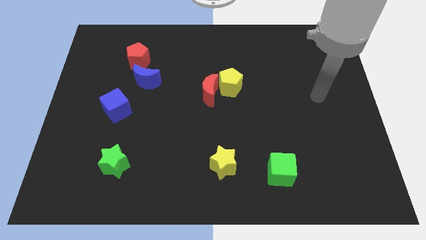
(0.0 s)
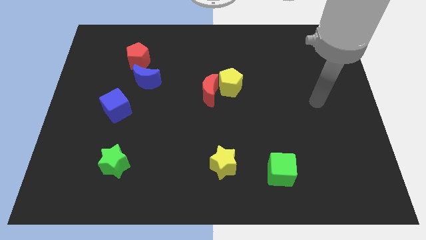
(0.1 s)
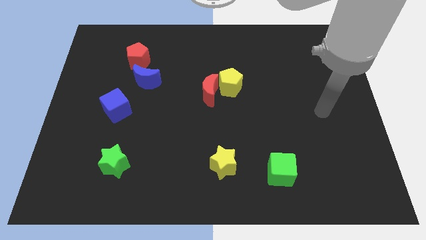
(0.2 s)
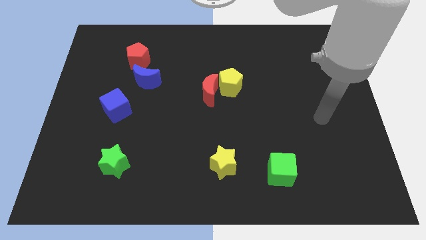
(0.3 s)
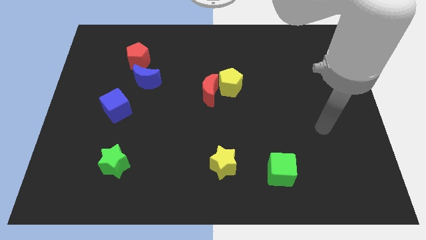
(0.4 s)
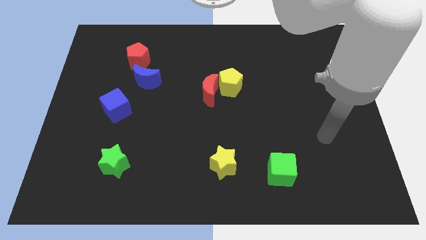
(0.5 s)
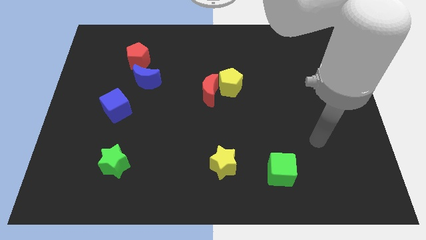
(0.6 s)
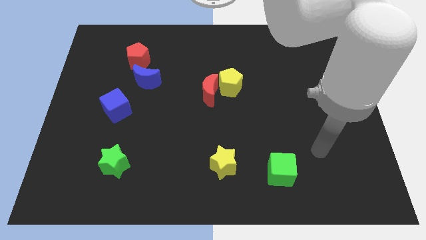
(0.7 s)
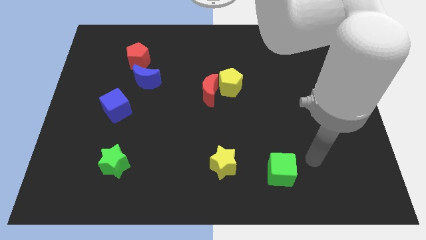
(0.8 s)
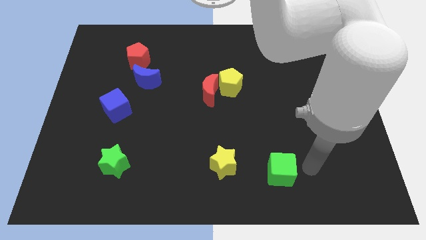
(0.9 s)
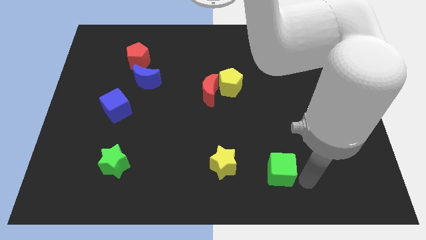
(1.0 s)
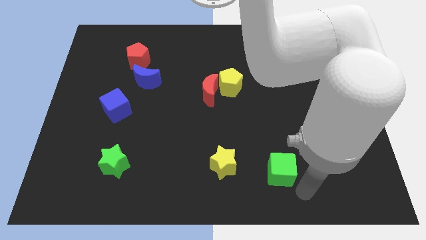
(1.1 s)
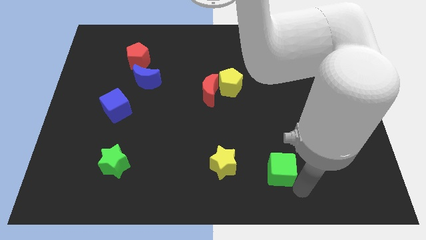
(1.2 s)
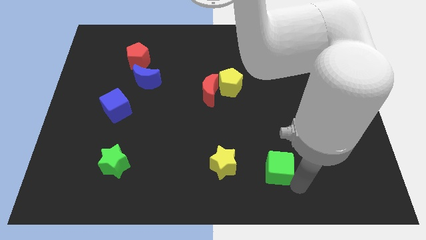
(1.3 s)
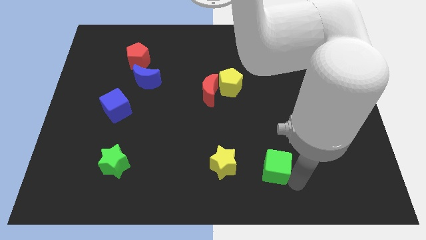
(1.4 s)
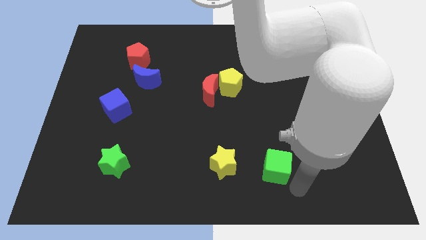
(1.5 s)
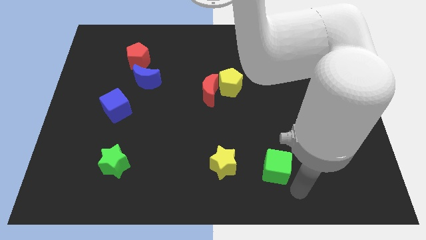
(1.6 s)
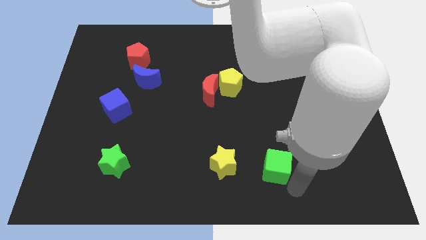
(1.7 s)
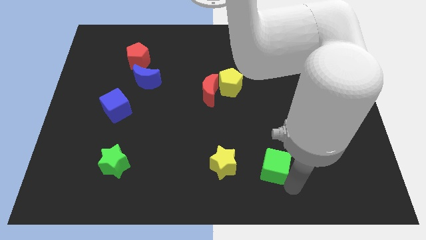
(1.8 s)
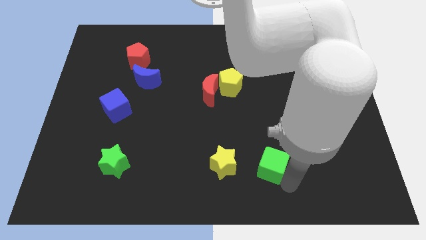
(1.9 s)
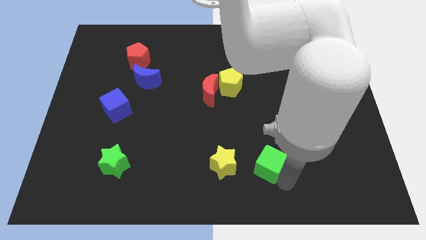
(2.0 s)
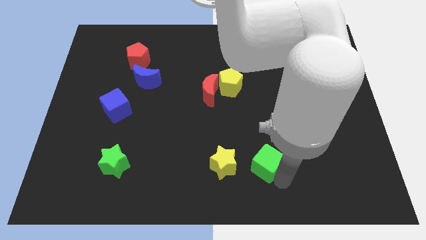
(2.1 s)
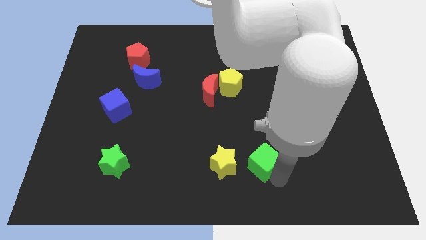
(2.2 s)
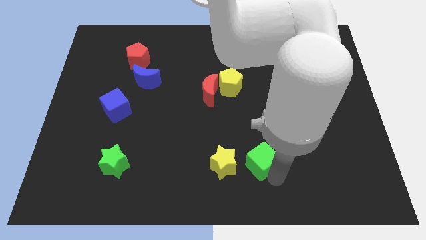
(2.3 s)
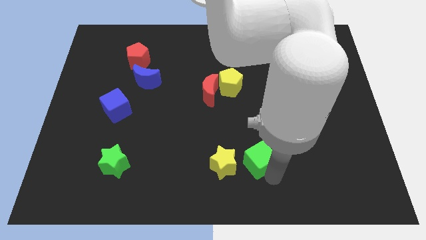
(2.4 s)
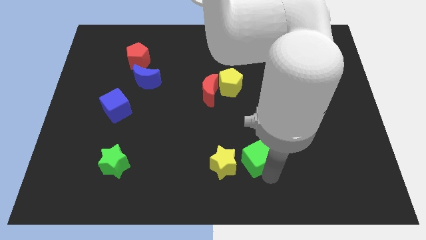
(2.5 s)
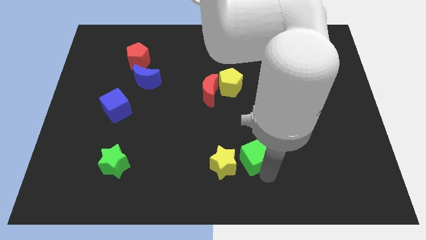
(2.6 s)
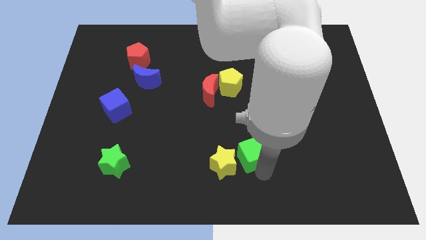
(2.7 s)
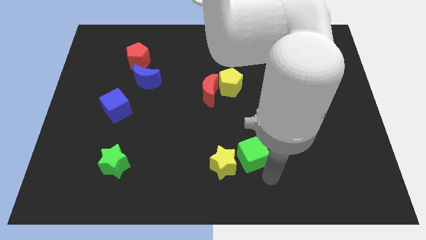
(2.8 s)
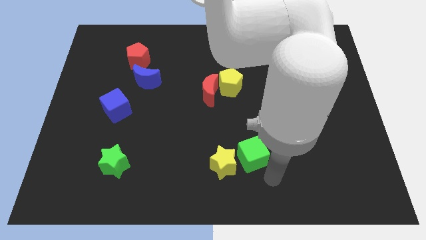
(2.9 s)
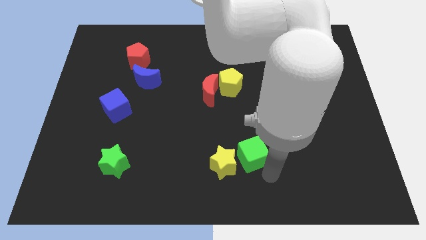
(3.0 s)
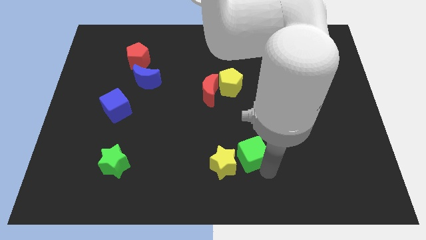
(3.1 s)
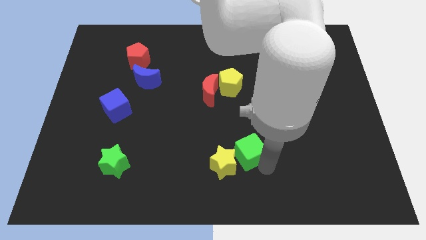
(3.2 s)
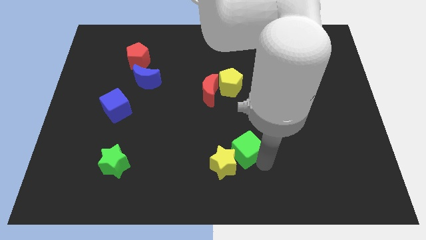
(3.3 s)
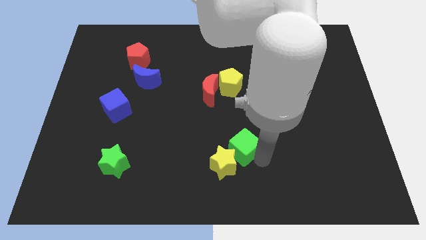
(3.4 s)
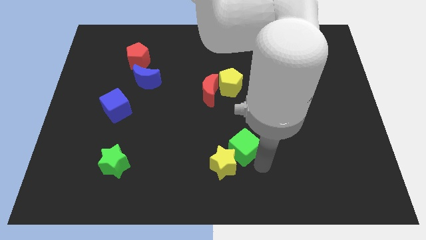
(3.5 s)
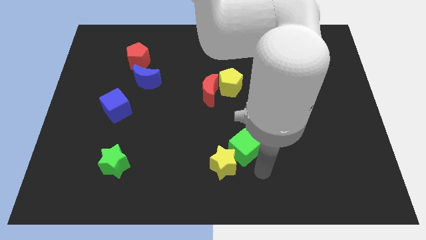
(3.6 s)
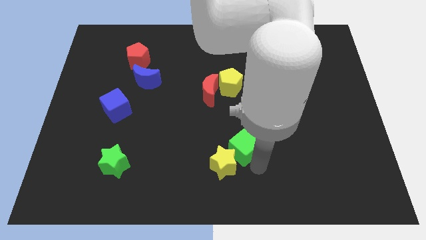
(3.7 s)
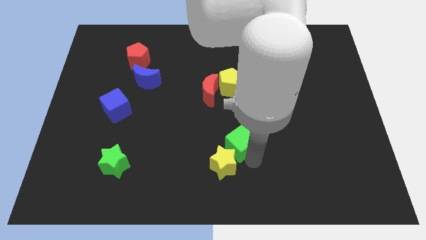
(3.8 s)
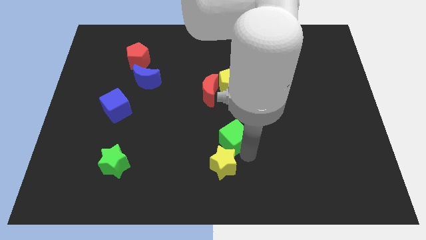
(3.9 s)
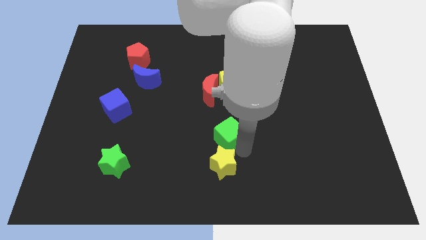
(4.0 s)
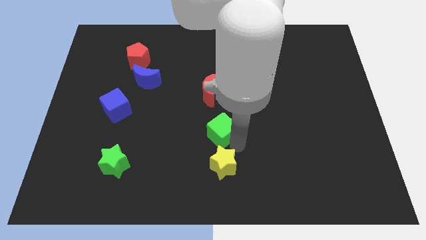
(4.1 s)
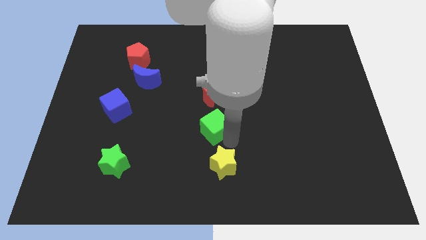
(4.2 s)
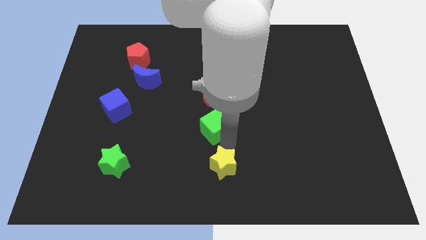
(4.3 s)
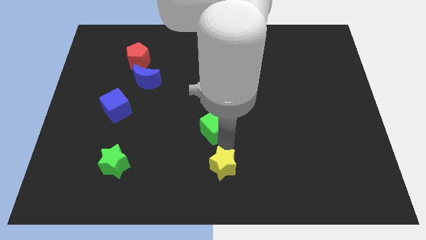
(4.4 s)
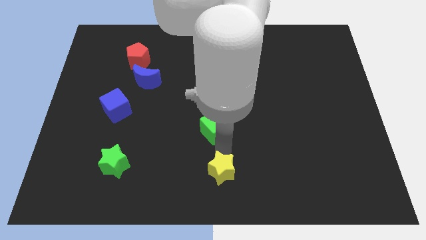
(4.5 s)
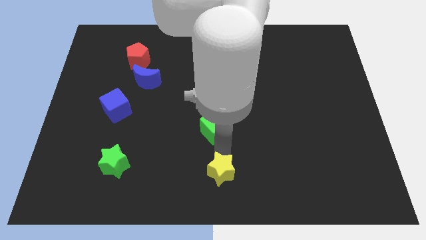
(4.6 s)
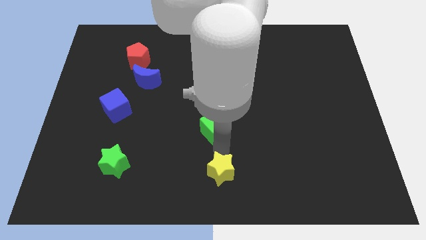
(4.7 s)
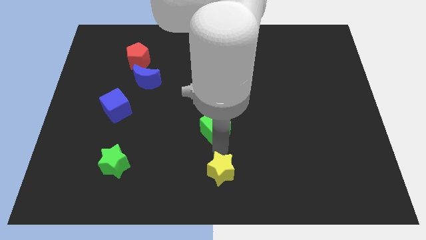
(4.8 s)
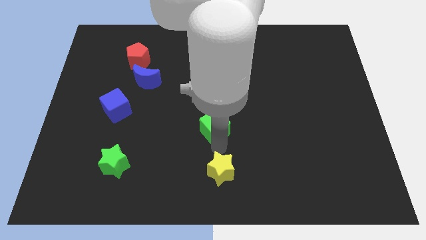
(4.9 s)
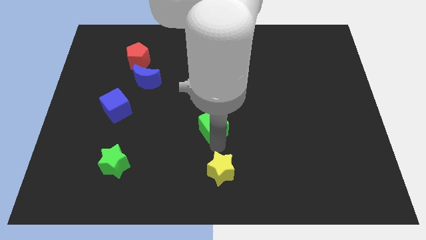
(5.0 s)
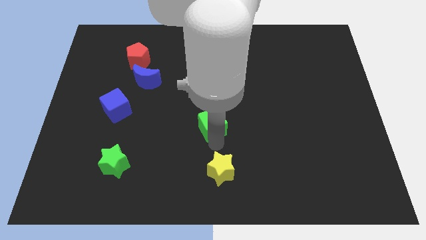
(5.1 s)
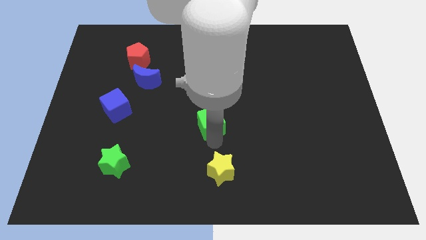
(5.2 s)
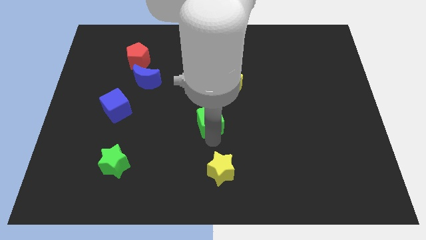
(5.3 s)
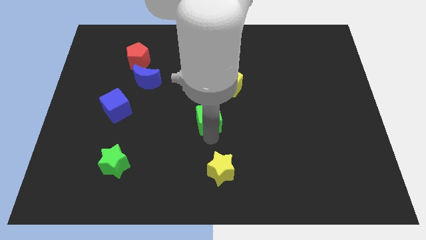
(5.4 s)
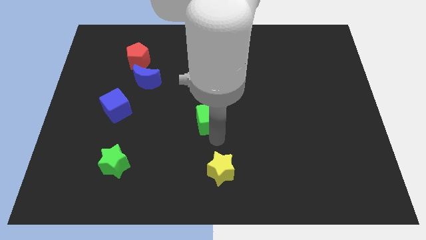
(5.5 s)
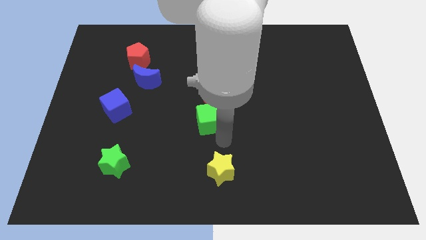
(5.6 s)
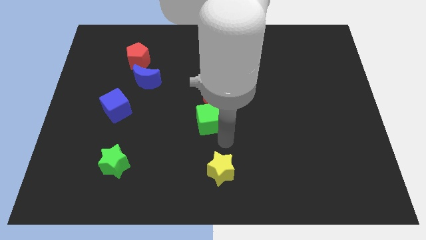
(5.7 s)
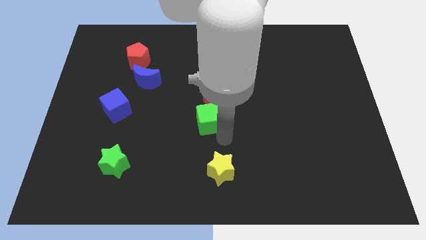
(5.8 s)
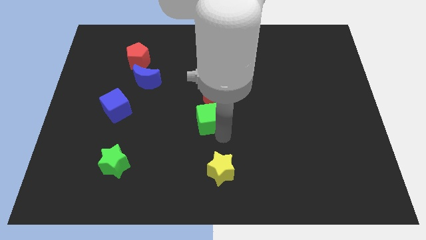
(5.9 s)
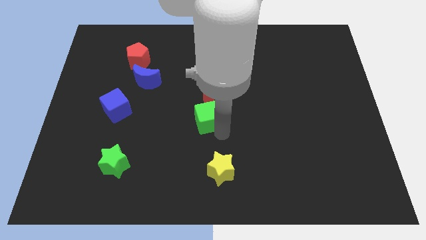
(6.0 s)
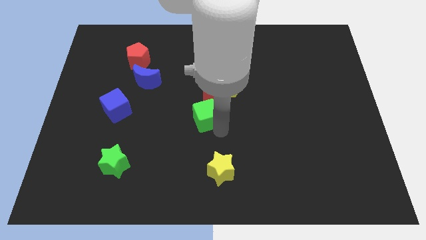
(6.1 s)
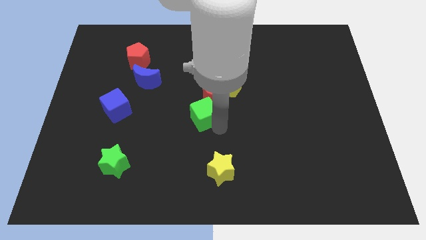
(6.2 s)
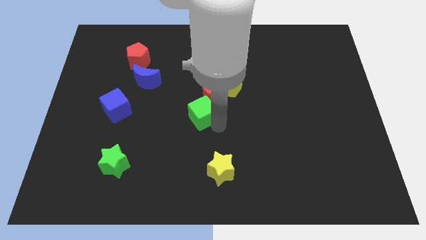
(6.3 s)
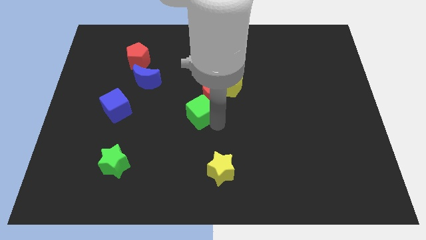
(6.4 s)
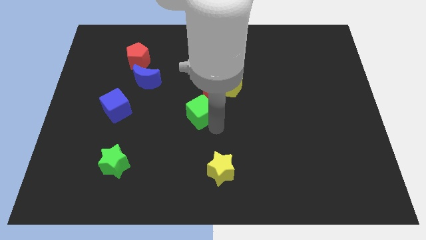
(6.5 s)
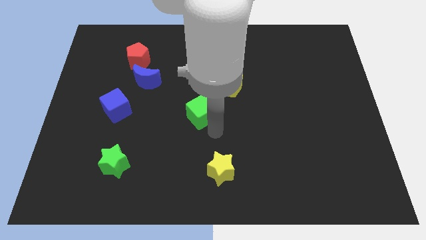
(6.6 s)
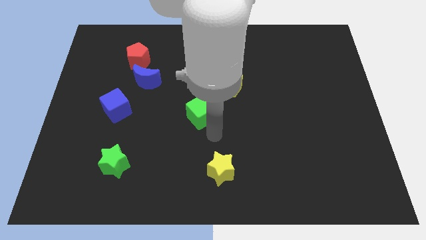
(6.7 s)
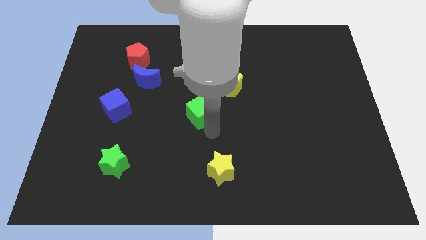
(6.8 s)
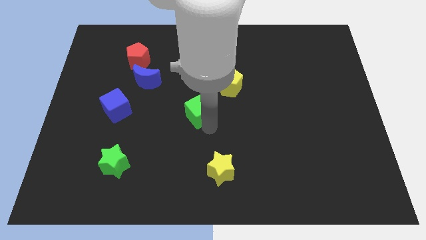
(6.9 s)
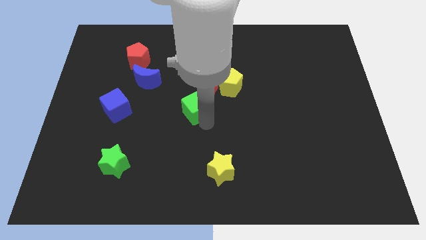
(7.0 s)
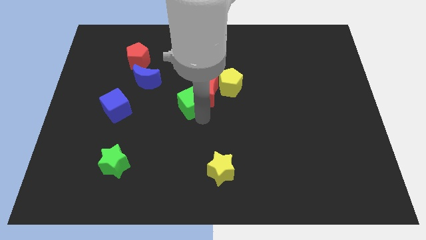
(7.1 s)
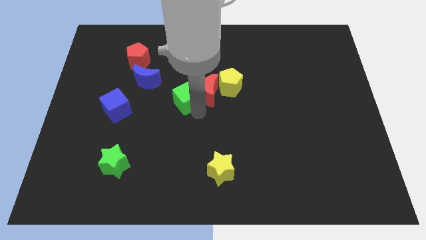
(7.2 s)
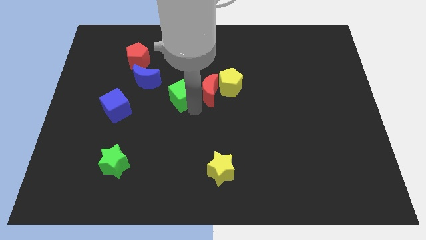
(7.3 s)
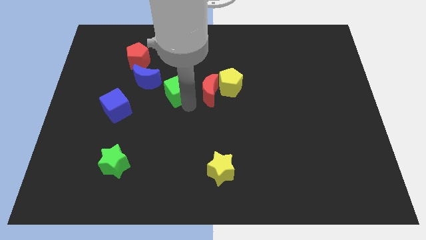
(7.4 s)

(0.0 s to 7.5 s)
slide the green cube right of the blue moon
